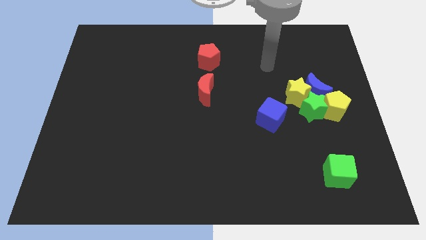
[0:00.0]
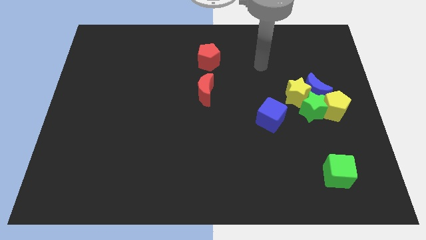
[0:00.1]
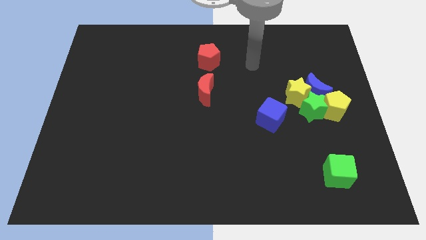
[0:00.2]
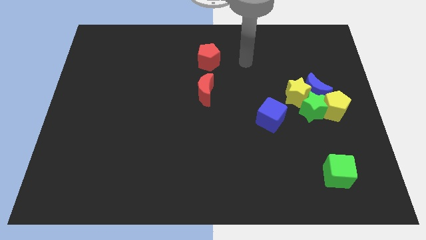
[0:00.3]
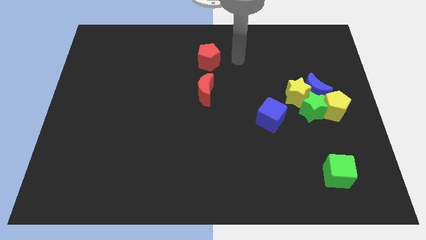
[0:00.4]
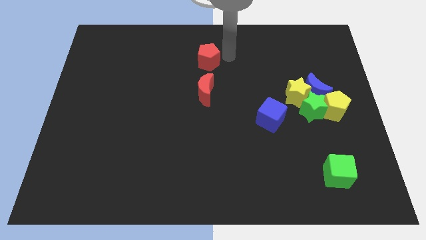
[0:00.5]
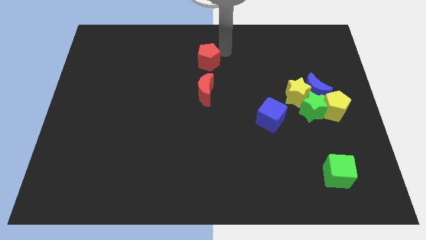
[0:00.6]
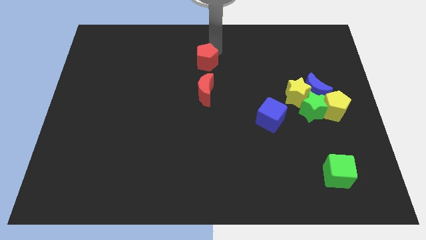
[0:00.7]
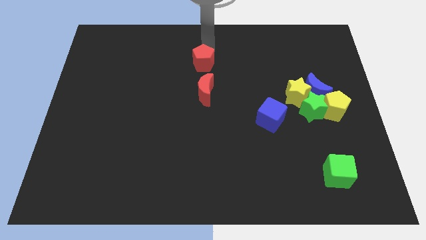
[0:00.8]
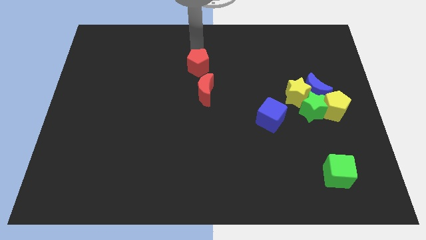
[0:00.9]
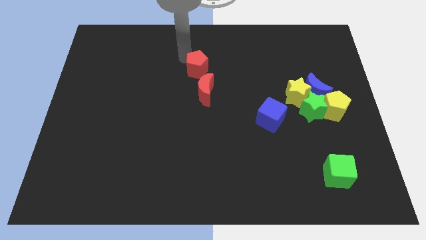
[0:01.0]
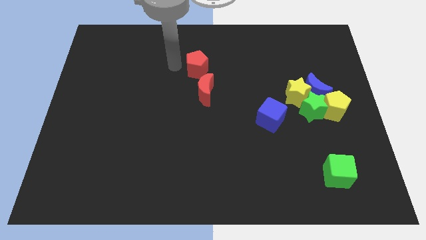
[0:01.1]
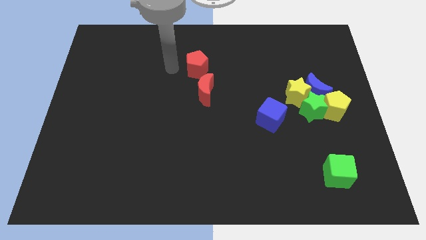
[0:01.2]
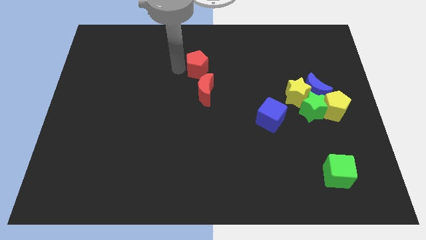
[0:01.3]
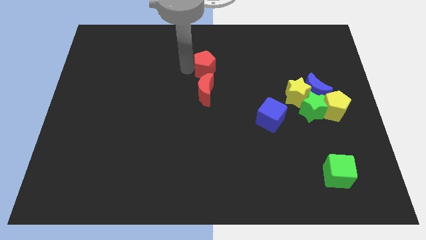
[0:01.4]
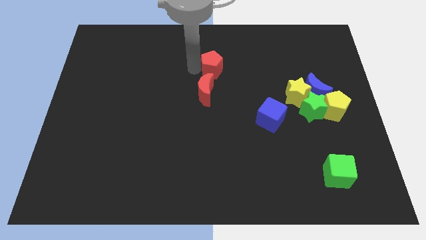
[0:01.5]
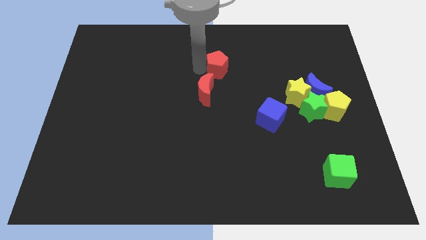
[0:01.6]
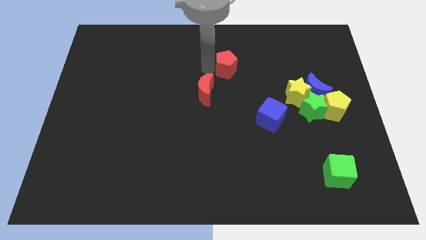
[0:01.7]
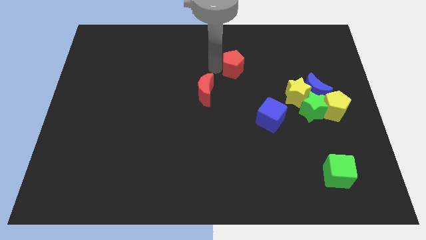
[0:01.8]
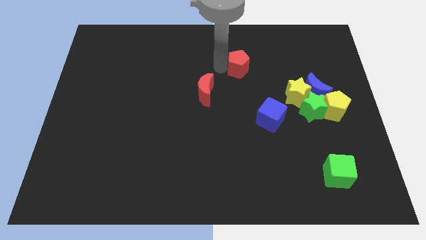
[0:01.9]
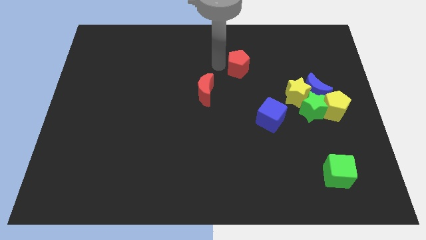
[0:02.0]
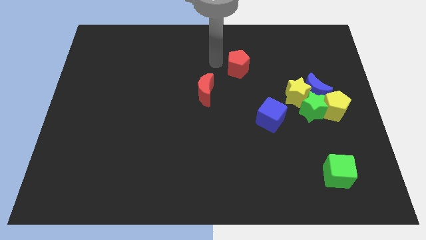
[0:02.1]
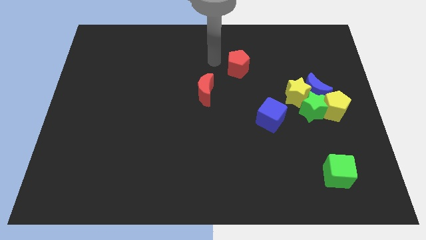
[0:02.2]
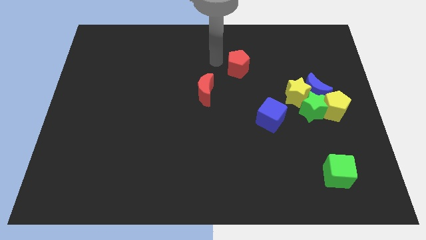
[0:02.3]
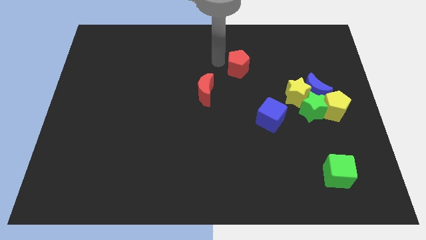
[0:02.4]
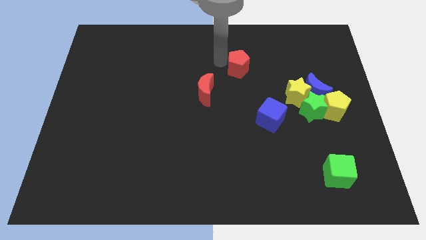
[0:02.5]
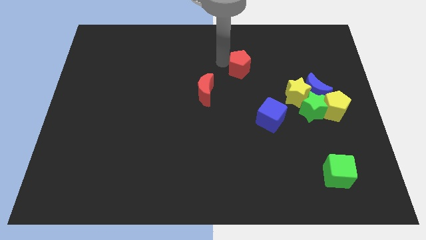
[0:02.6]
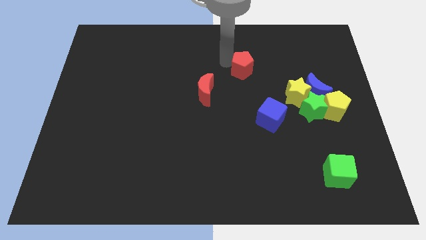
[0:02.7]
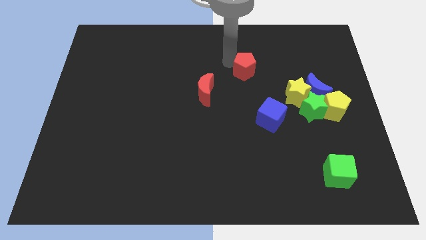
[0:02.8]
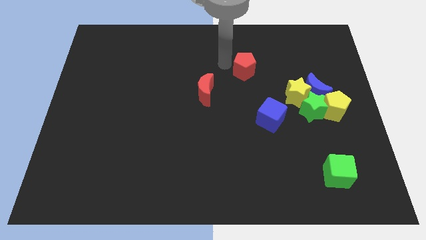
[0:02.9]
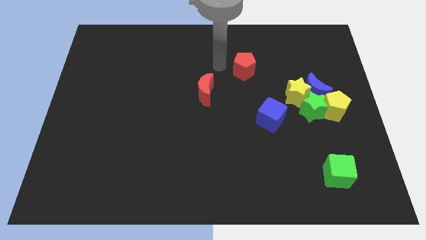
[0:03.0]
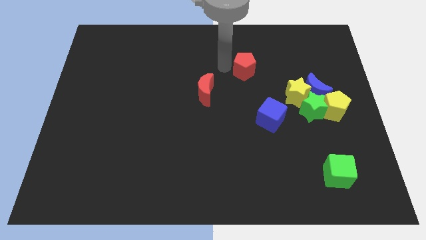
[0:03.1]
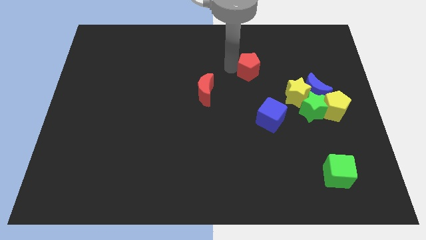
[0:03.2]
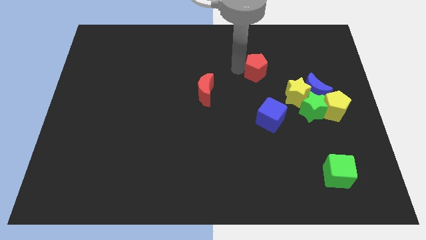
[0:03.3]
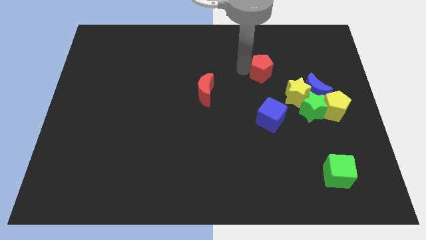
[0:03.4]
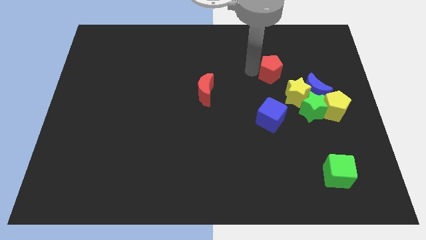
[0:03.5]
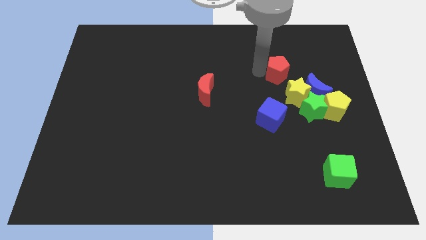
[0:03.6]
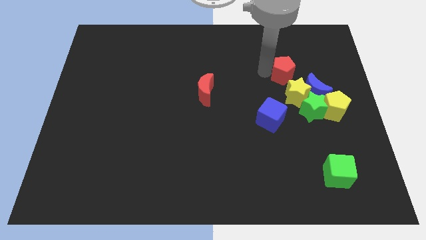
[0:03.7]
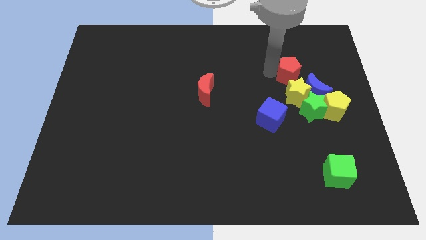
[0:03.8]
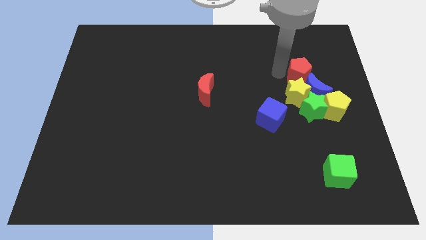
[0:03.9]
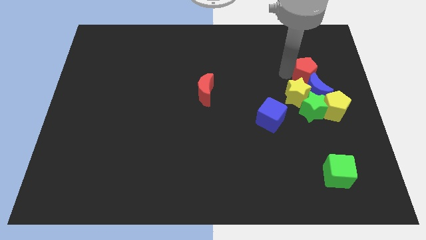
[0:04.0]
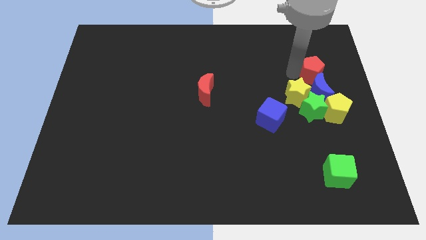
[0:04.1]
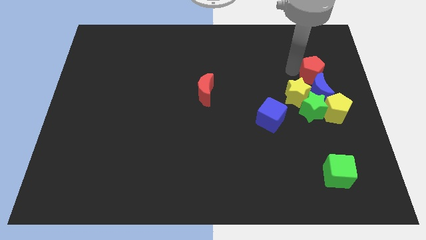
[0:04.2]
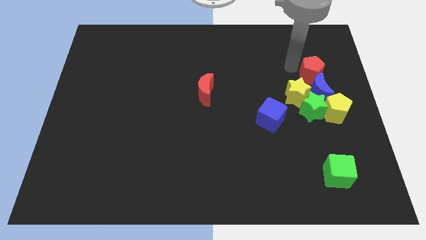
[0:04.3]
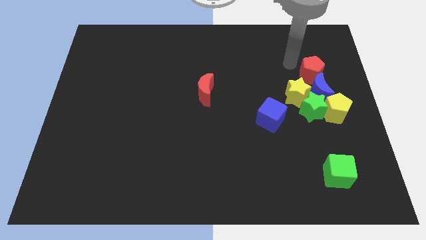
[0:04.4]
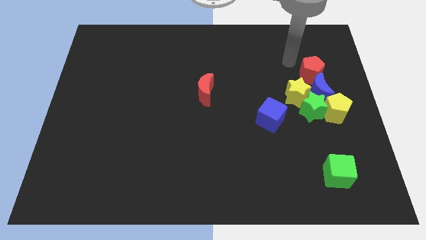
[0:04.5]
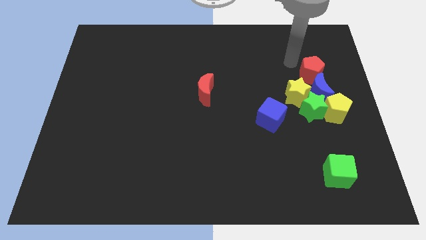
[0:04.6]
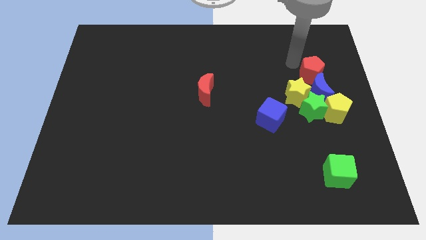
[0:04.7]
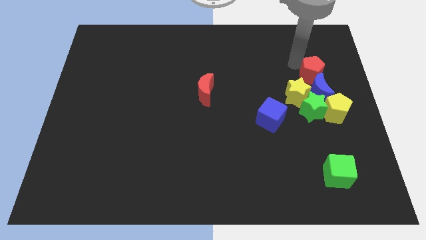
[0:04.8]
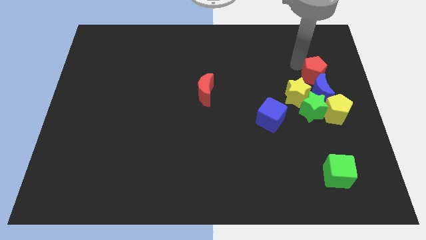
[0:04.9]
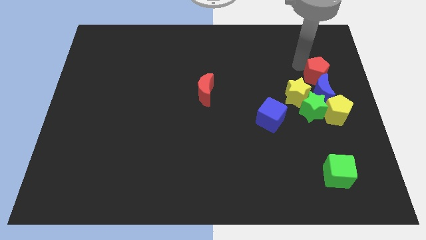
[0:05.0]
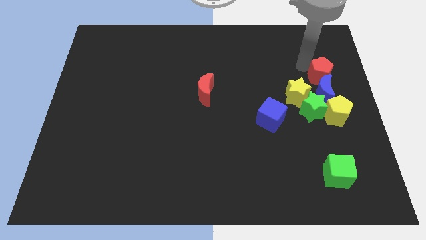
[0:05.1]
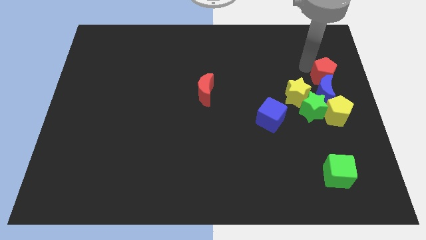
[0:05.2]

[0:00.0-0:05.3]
put the red pentagon to the right side

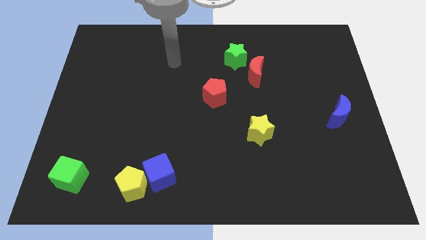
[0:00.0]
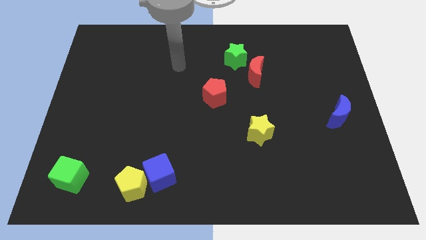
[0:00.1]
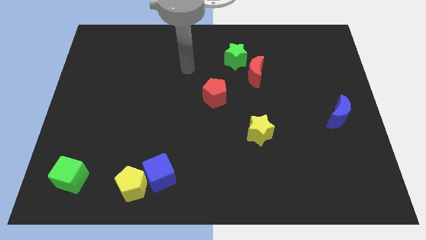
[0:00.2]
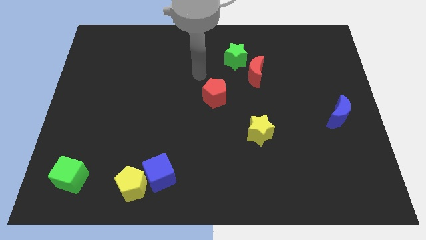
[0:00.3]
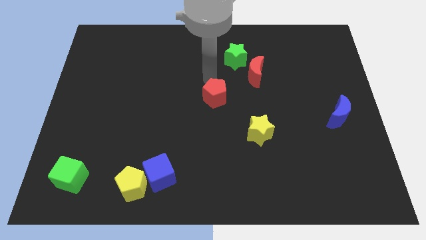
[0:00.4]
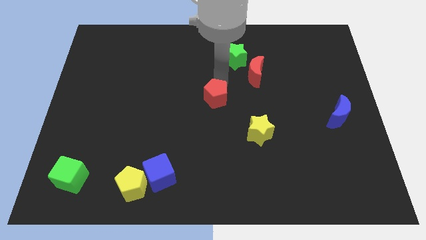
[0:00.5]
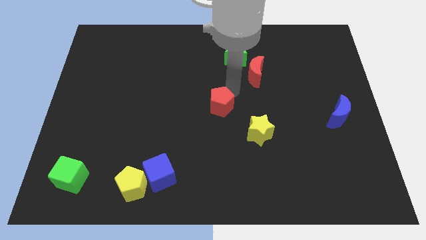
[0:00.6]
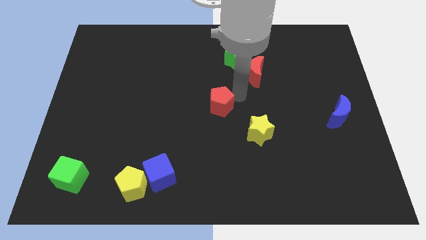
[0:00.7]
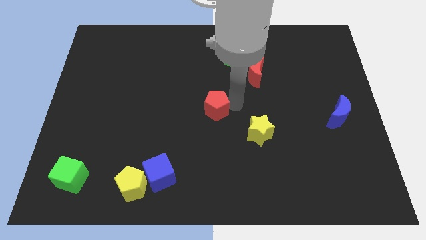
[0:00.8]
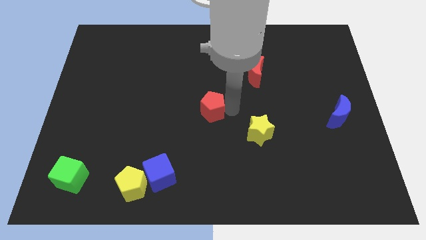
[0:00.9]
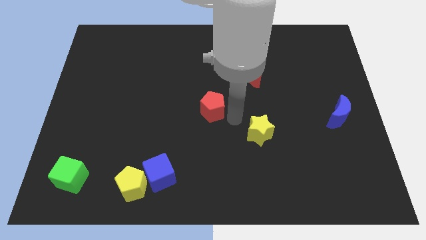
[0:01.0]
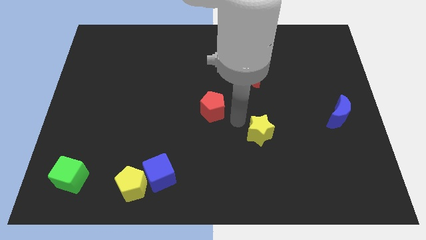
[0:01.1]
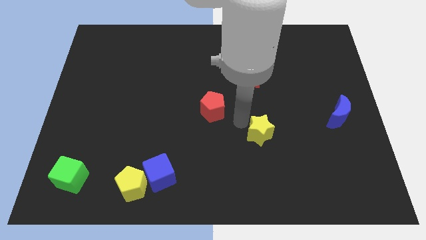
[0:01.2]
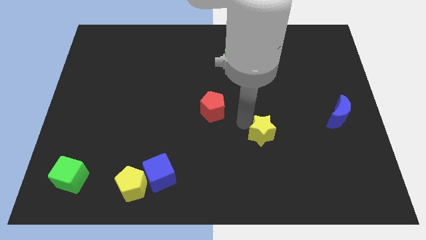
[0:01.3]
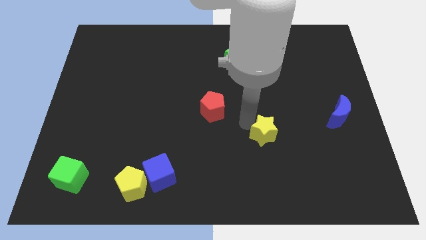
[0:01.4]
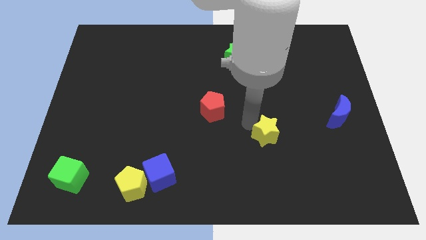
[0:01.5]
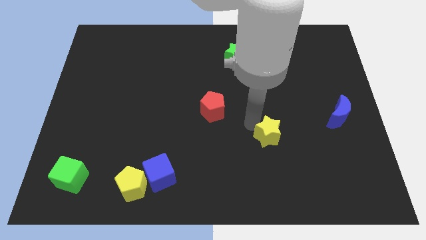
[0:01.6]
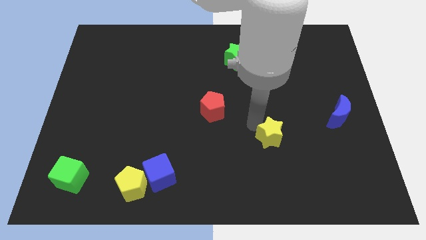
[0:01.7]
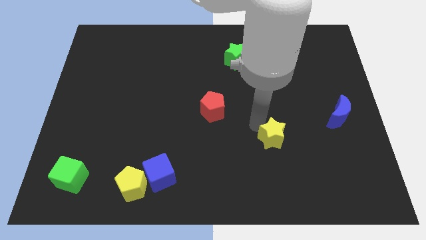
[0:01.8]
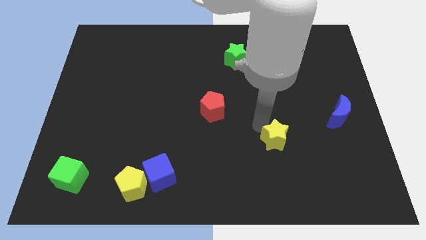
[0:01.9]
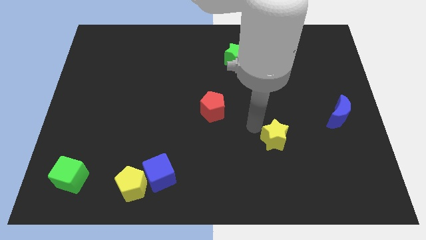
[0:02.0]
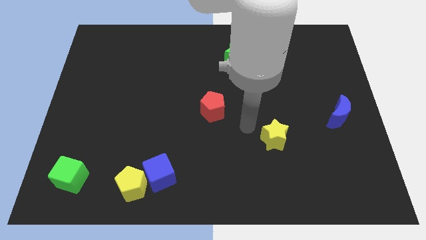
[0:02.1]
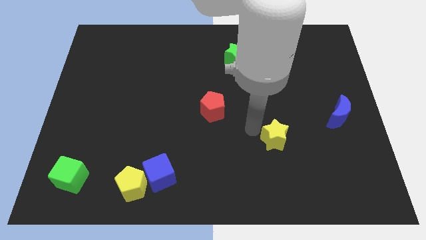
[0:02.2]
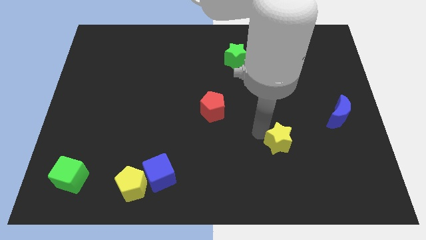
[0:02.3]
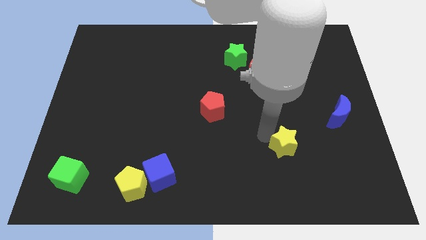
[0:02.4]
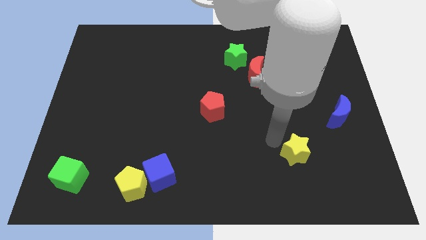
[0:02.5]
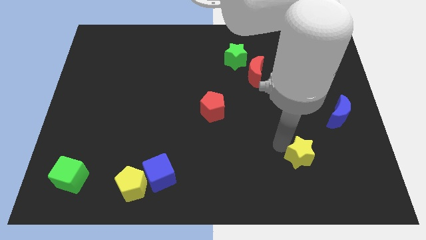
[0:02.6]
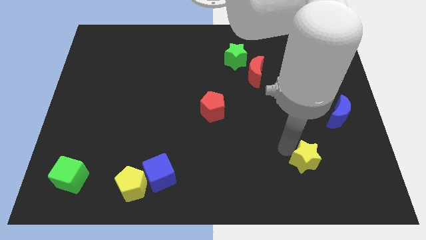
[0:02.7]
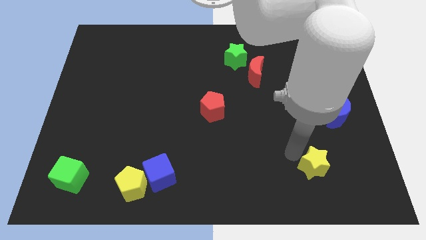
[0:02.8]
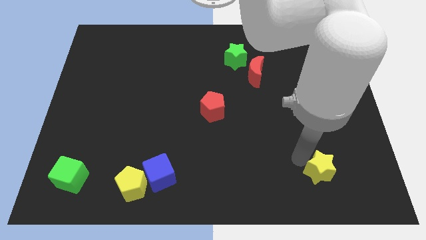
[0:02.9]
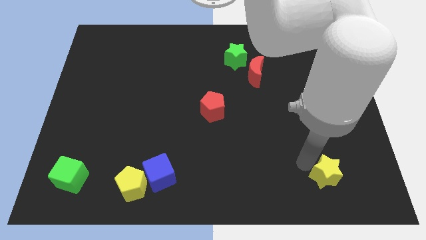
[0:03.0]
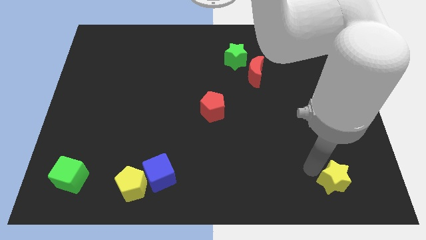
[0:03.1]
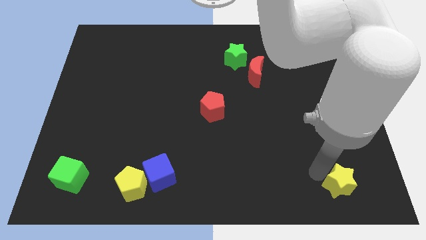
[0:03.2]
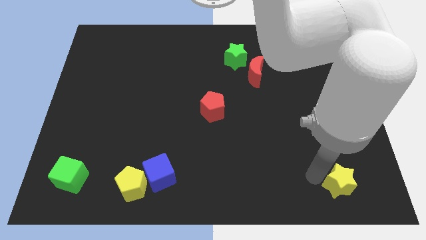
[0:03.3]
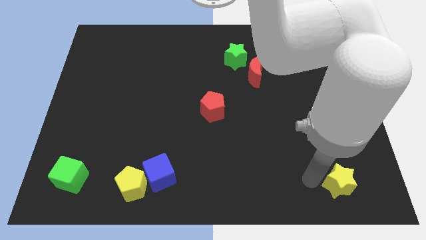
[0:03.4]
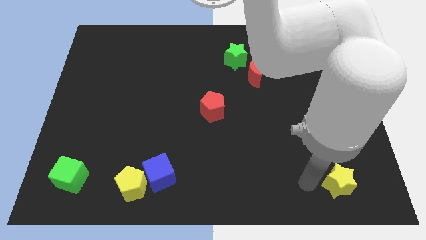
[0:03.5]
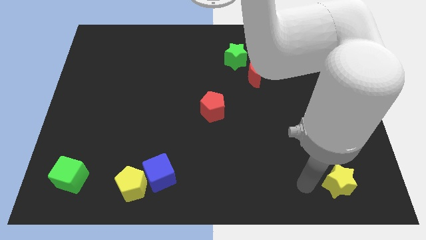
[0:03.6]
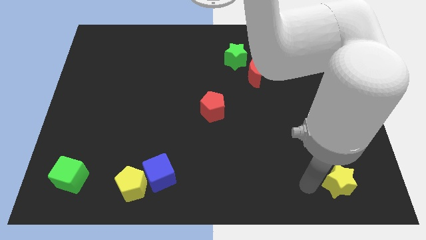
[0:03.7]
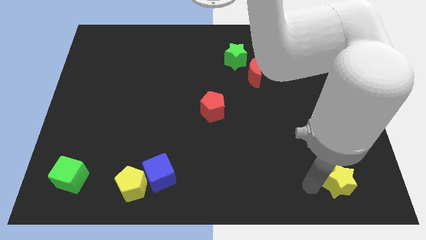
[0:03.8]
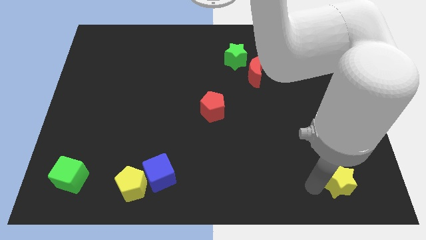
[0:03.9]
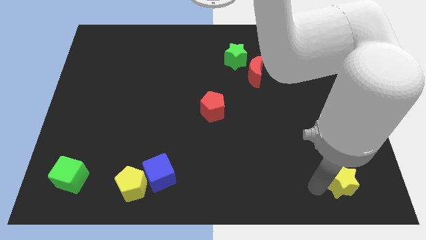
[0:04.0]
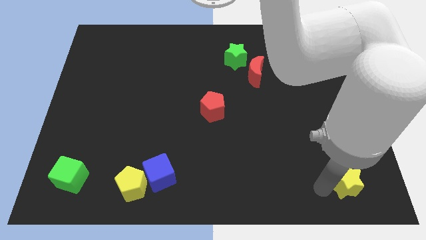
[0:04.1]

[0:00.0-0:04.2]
push the yellow star to the bottom right corner
